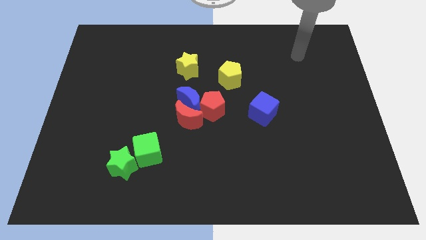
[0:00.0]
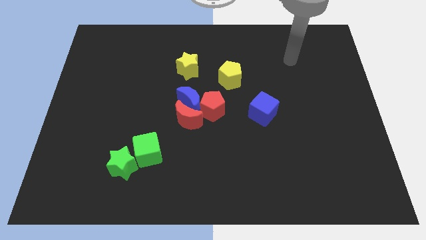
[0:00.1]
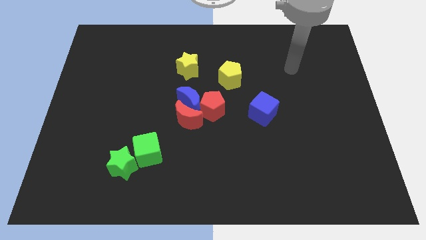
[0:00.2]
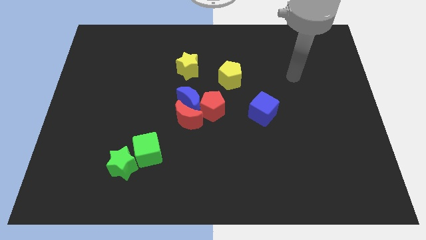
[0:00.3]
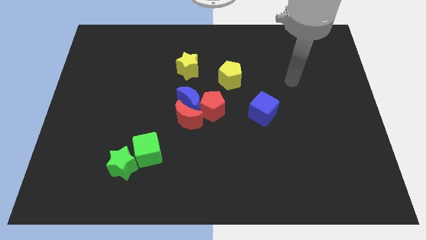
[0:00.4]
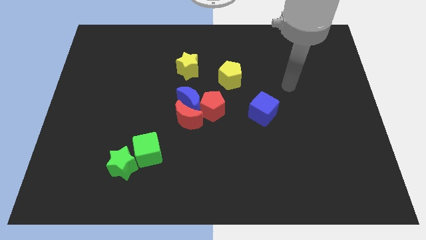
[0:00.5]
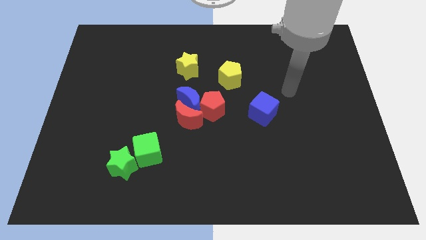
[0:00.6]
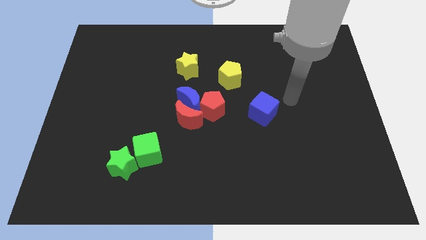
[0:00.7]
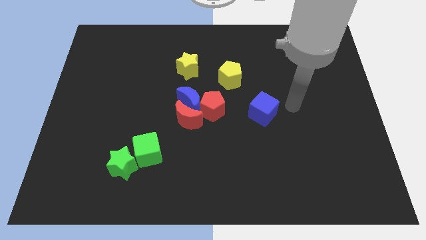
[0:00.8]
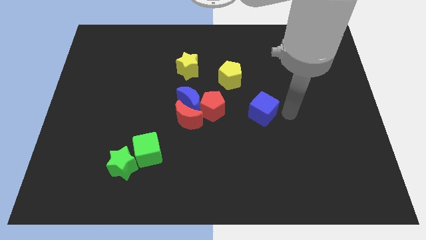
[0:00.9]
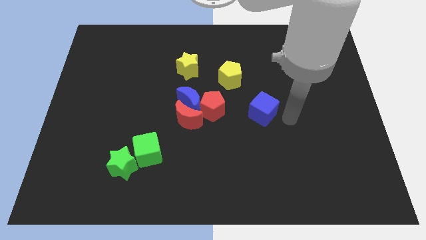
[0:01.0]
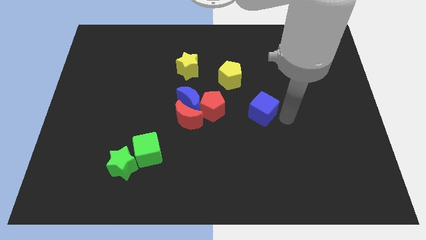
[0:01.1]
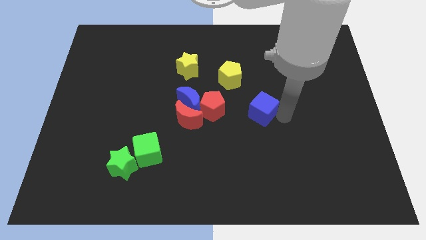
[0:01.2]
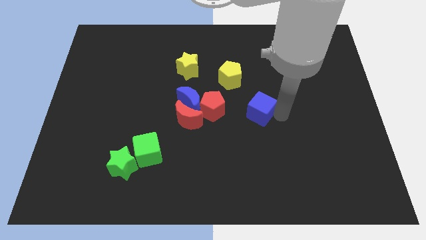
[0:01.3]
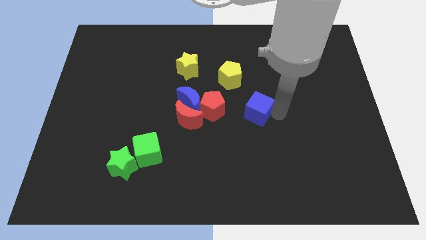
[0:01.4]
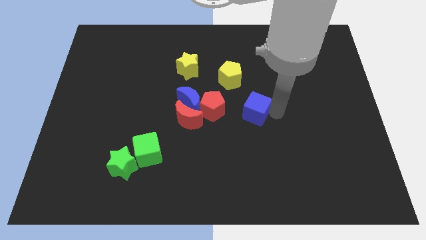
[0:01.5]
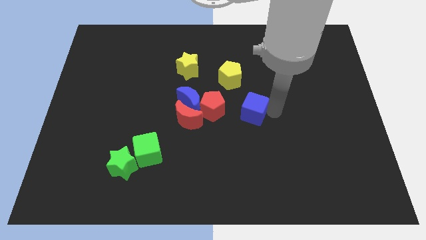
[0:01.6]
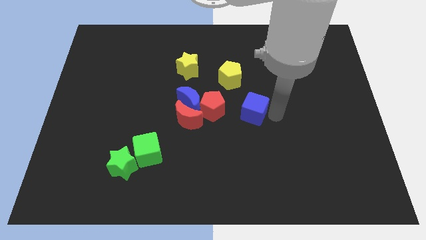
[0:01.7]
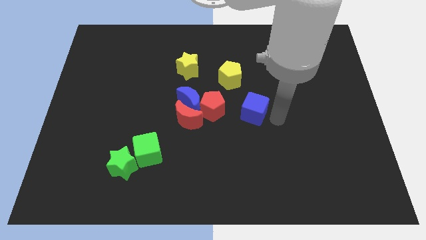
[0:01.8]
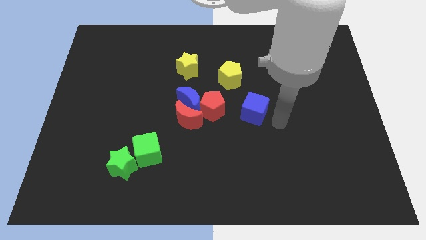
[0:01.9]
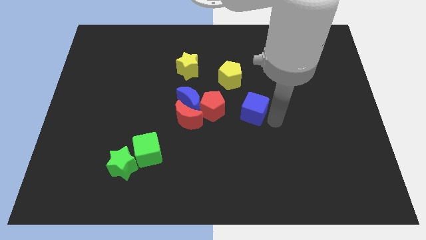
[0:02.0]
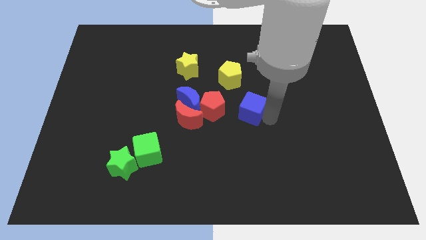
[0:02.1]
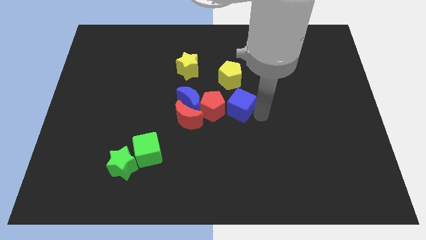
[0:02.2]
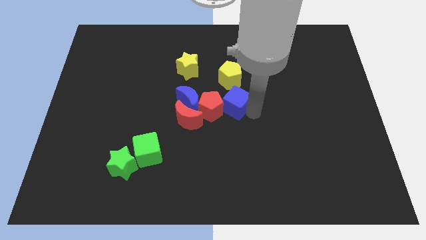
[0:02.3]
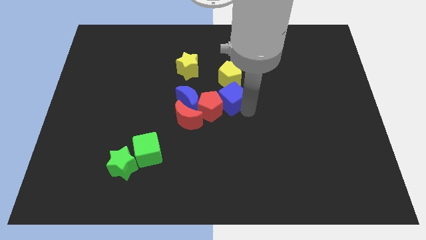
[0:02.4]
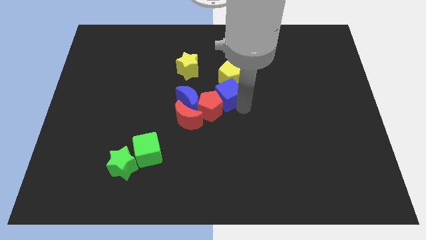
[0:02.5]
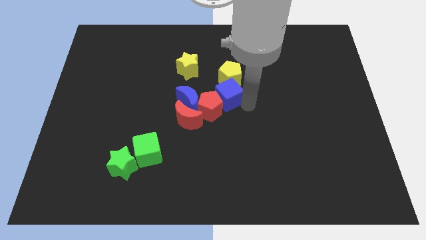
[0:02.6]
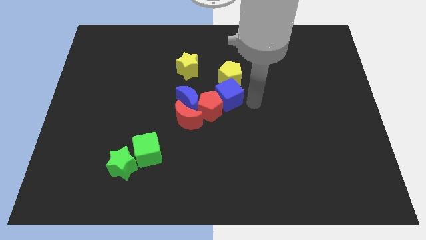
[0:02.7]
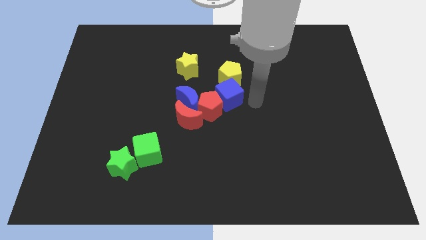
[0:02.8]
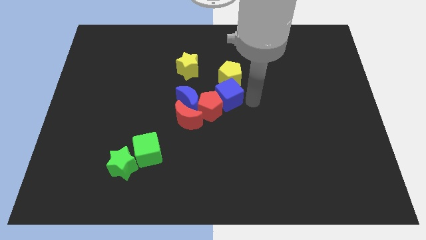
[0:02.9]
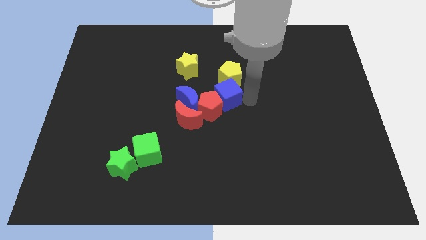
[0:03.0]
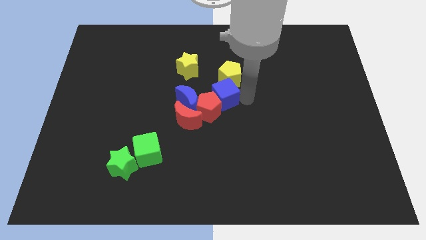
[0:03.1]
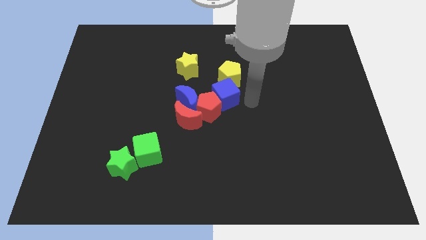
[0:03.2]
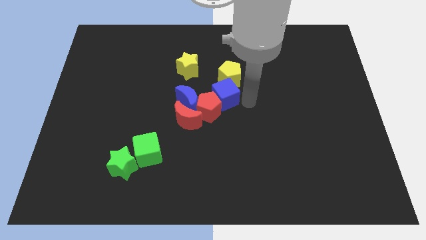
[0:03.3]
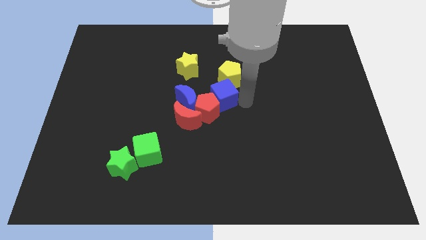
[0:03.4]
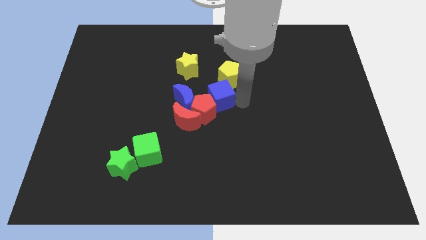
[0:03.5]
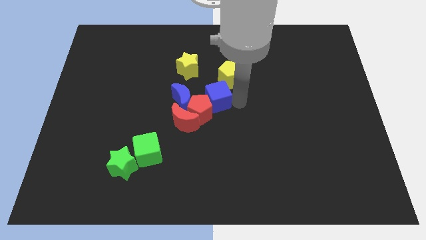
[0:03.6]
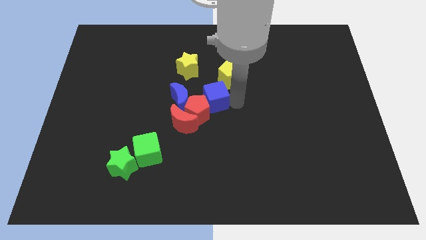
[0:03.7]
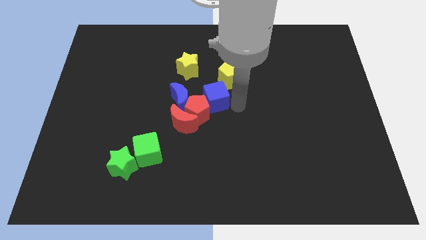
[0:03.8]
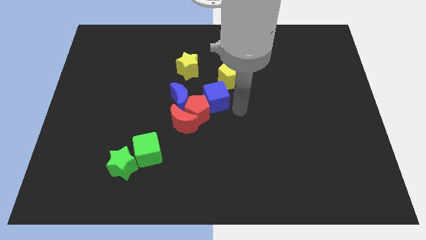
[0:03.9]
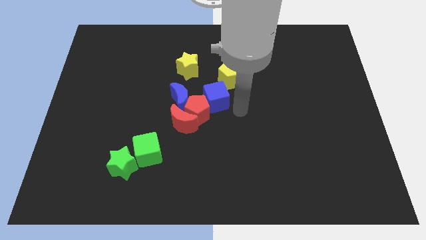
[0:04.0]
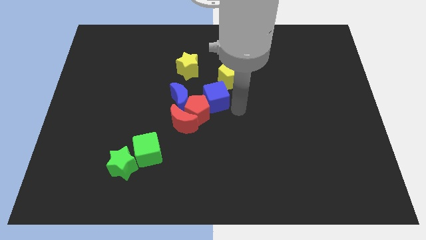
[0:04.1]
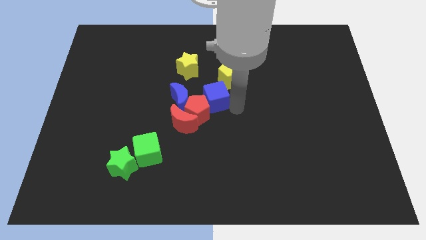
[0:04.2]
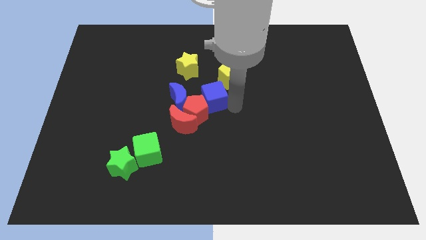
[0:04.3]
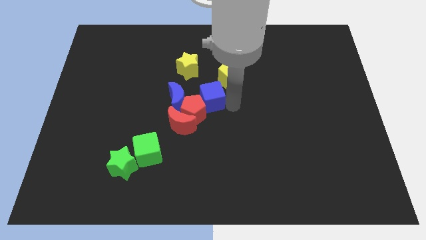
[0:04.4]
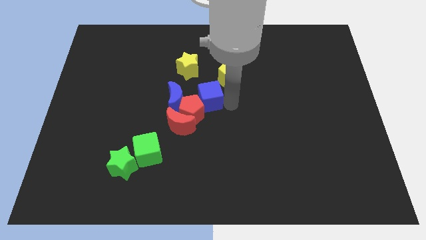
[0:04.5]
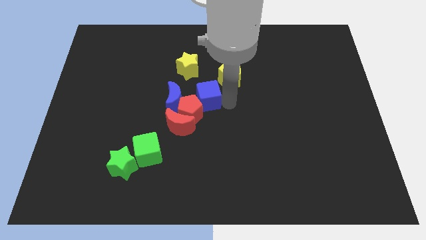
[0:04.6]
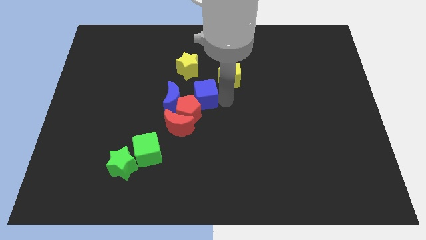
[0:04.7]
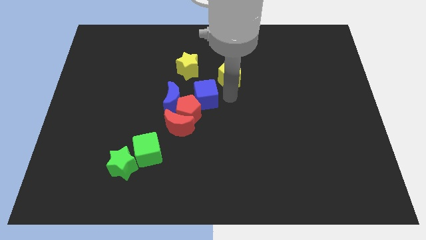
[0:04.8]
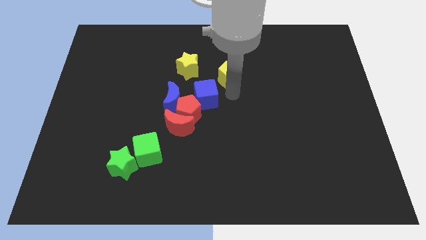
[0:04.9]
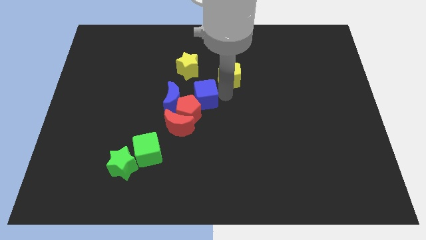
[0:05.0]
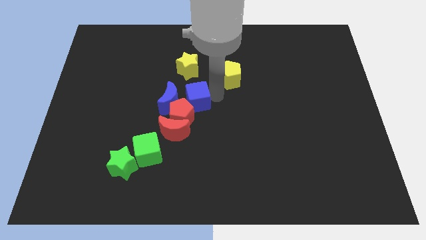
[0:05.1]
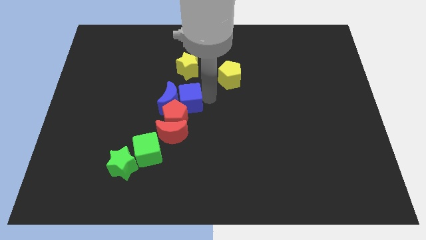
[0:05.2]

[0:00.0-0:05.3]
move the blue cube to the blue moon

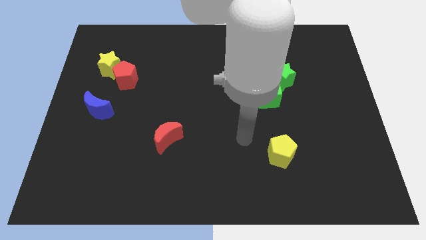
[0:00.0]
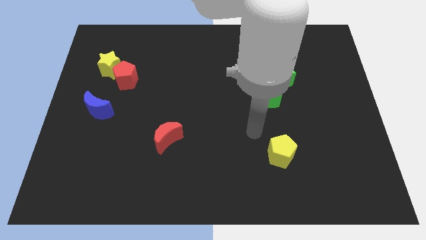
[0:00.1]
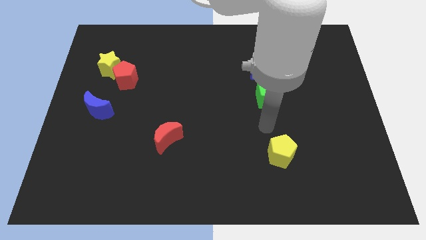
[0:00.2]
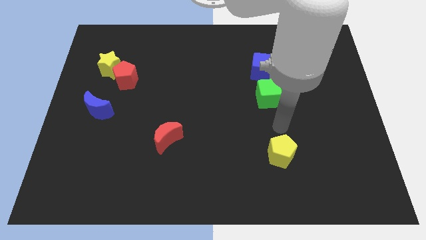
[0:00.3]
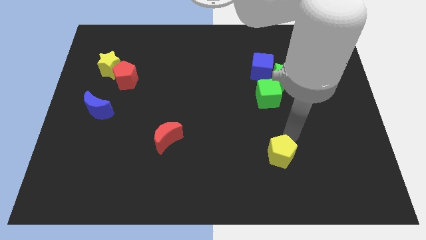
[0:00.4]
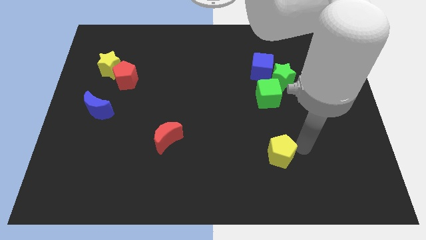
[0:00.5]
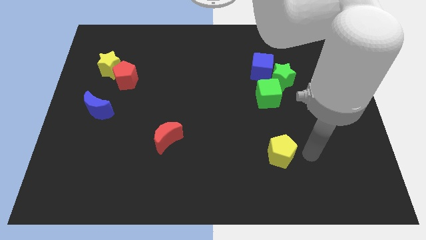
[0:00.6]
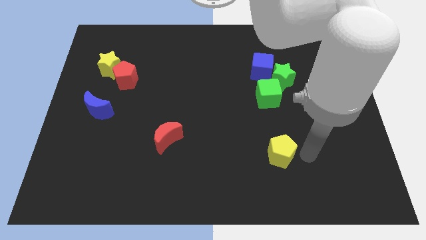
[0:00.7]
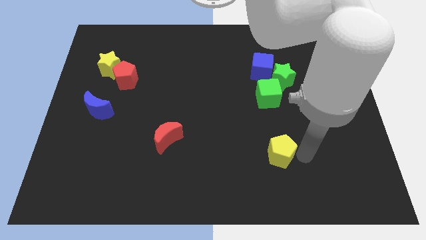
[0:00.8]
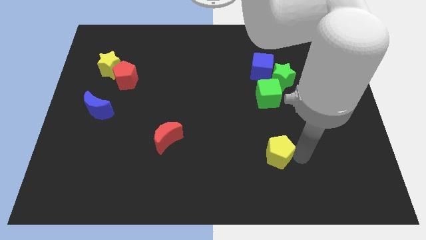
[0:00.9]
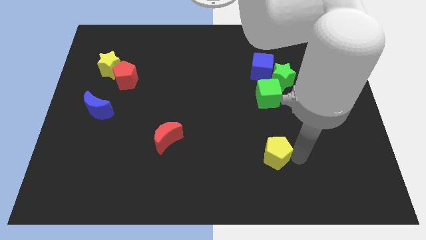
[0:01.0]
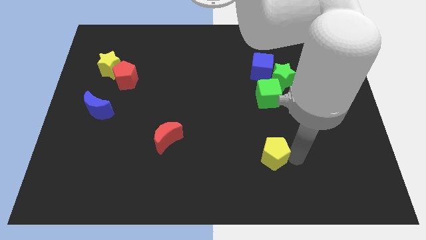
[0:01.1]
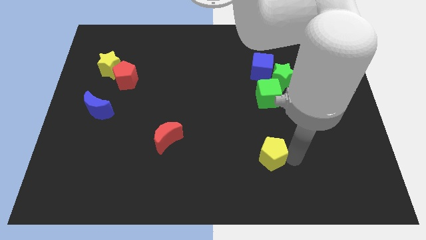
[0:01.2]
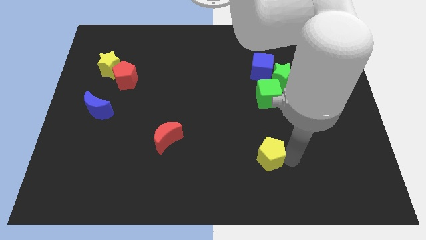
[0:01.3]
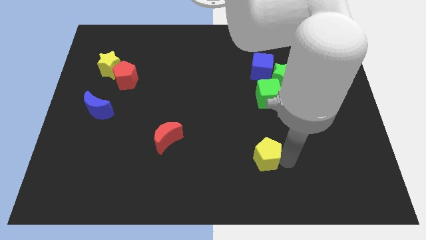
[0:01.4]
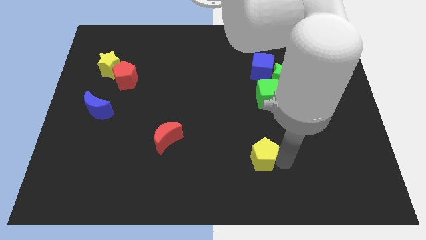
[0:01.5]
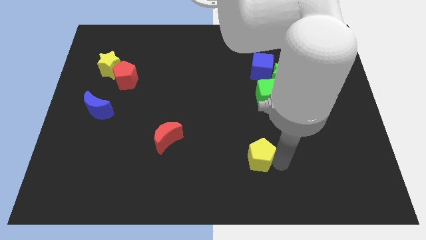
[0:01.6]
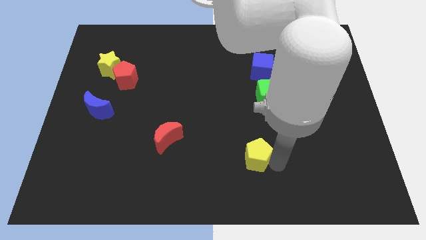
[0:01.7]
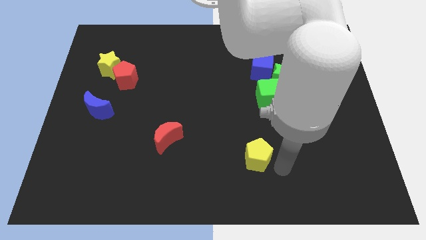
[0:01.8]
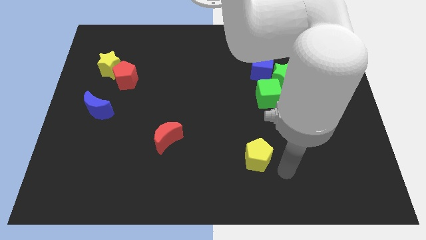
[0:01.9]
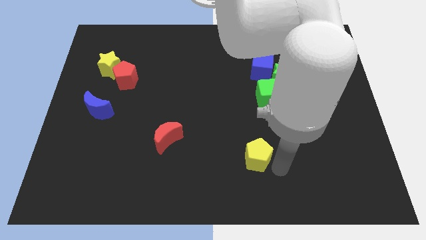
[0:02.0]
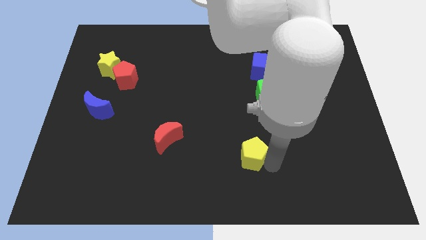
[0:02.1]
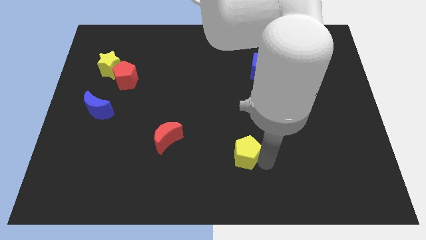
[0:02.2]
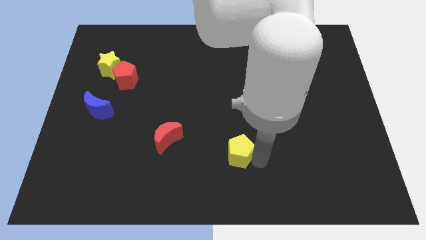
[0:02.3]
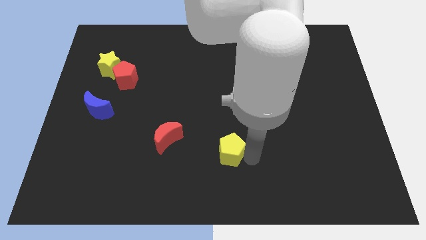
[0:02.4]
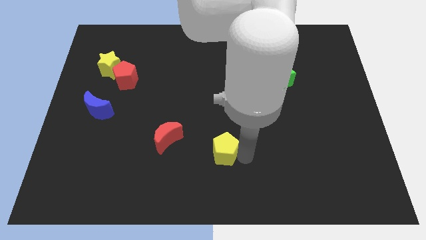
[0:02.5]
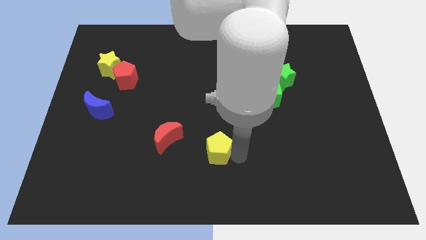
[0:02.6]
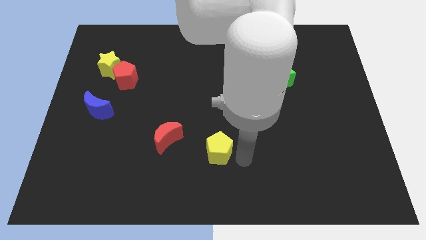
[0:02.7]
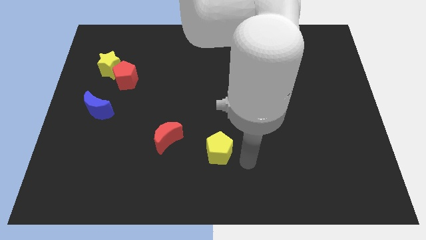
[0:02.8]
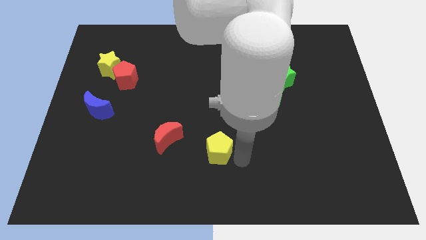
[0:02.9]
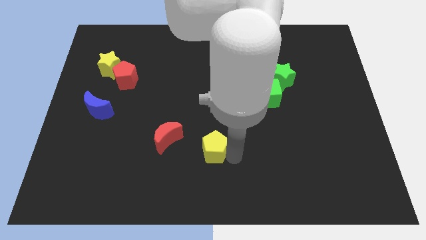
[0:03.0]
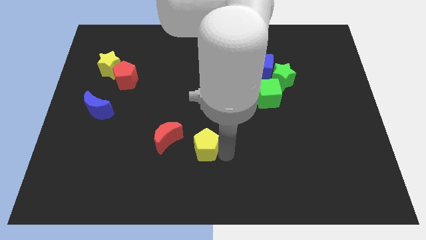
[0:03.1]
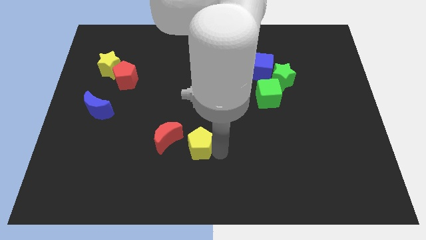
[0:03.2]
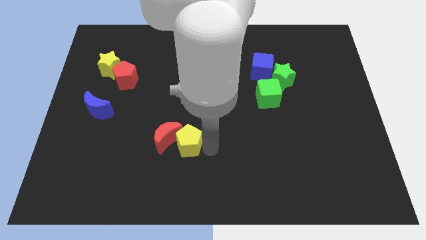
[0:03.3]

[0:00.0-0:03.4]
move the yellow pentagon to the red moon
